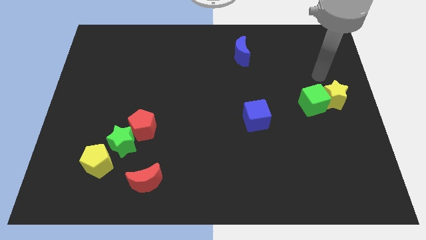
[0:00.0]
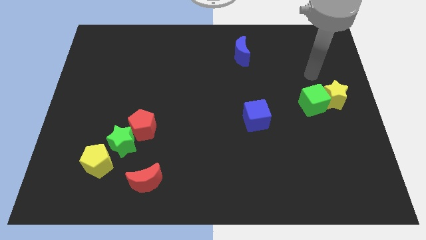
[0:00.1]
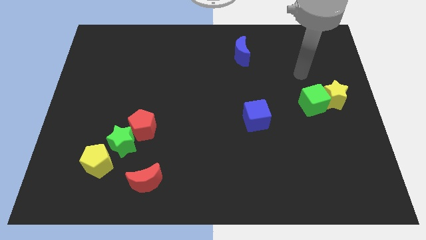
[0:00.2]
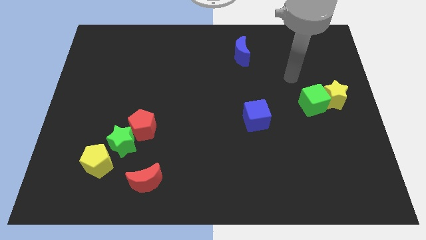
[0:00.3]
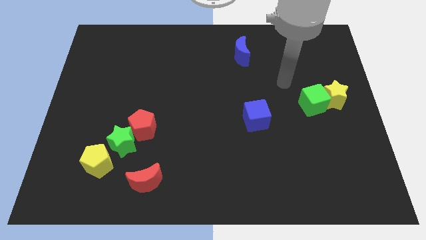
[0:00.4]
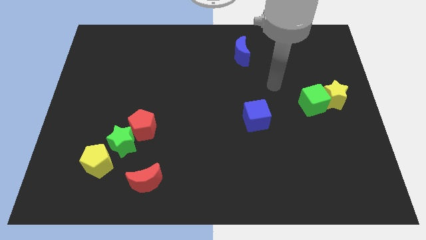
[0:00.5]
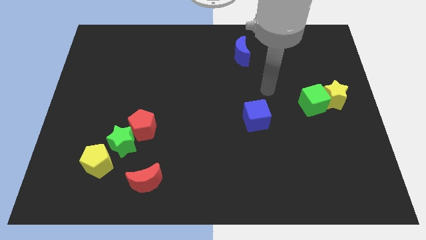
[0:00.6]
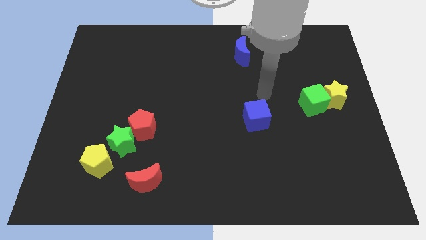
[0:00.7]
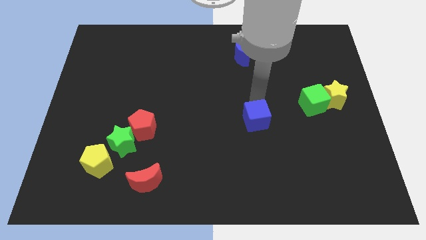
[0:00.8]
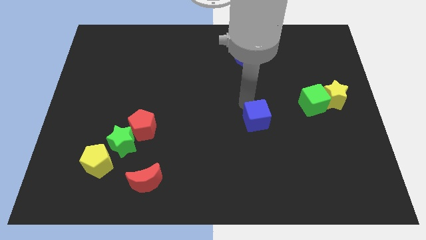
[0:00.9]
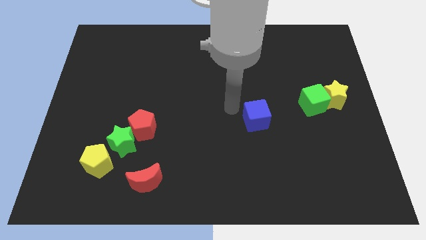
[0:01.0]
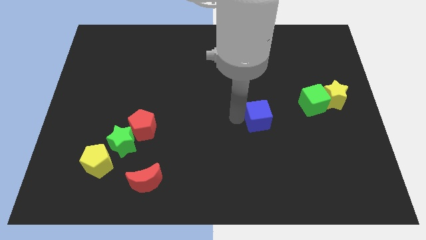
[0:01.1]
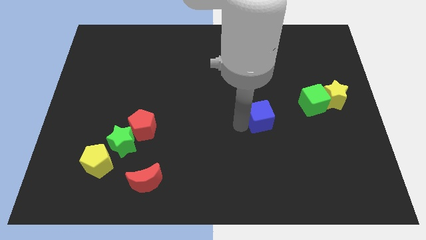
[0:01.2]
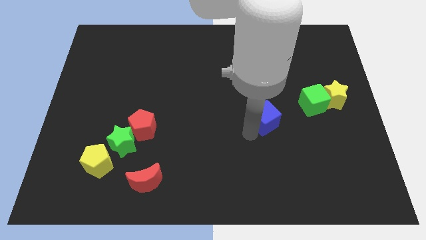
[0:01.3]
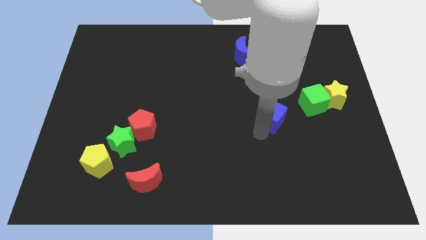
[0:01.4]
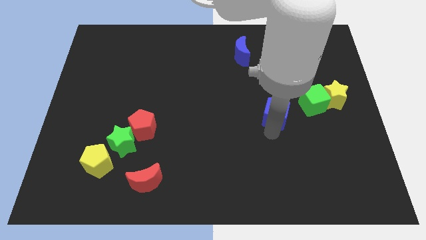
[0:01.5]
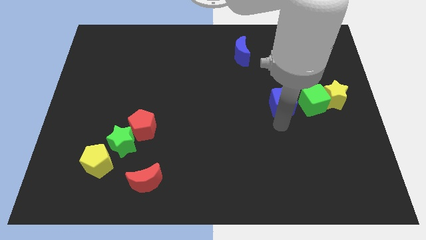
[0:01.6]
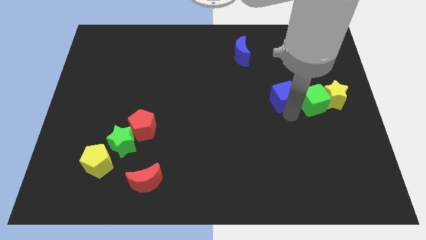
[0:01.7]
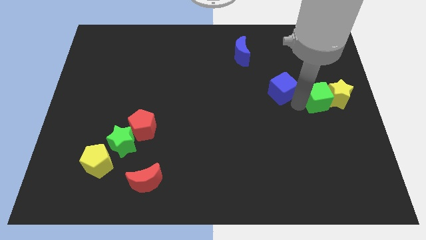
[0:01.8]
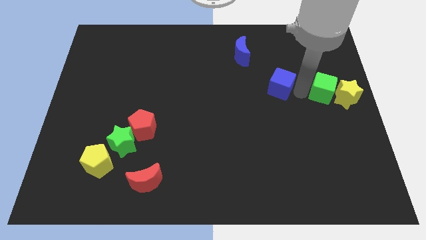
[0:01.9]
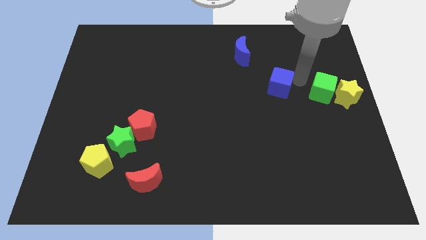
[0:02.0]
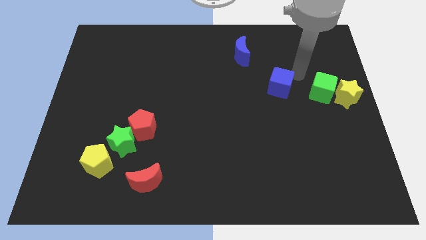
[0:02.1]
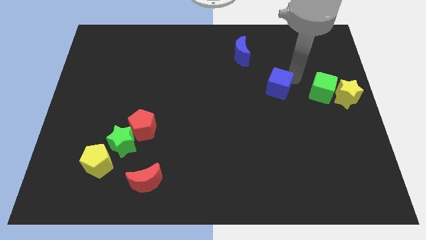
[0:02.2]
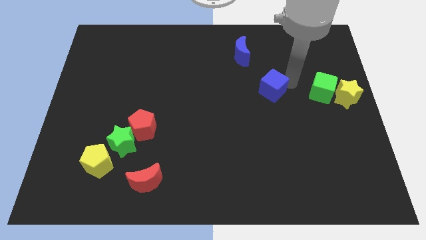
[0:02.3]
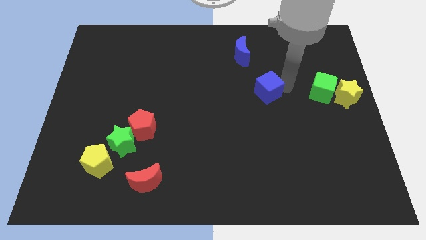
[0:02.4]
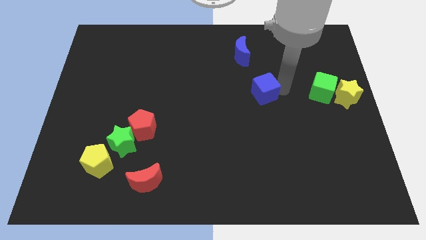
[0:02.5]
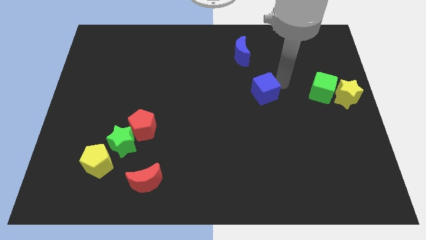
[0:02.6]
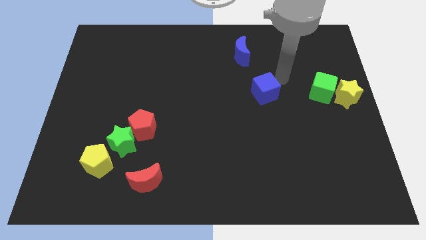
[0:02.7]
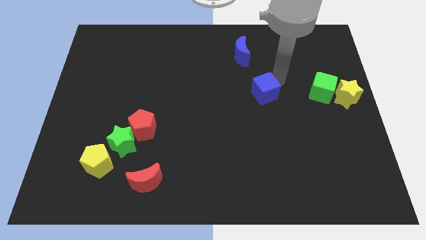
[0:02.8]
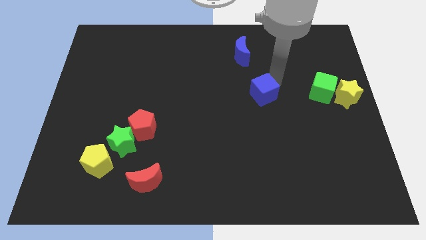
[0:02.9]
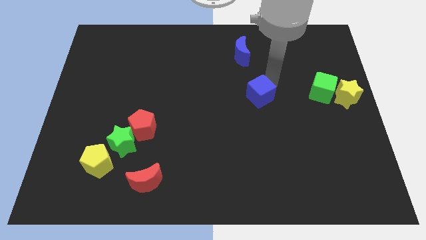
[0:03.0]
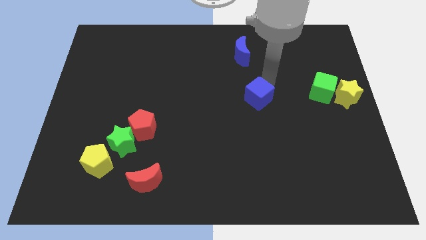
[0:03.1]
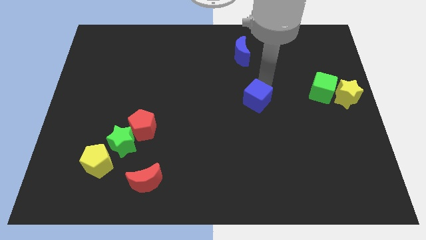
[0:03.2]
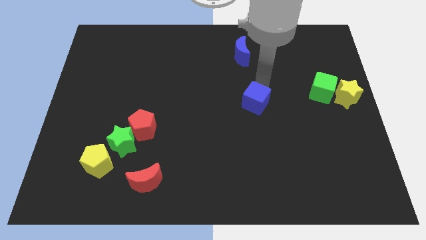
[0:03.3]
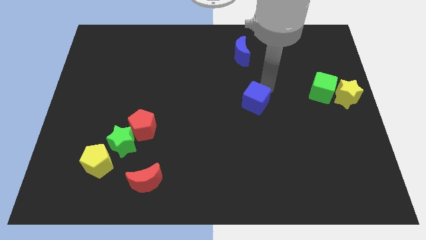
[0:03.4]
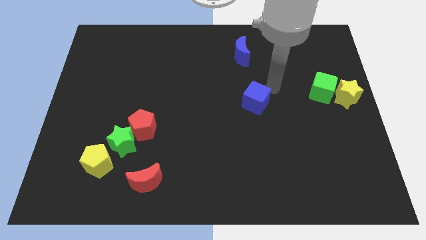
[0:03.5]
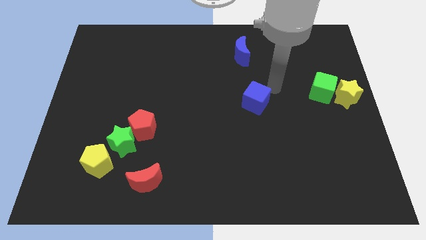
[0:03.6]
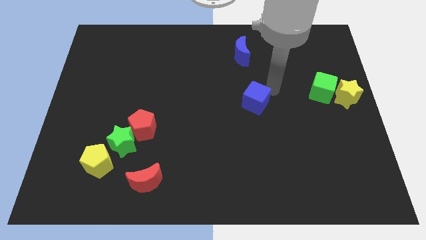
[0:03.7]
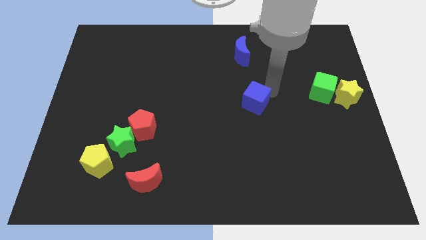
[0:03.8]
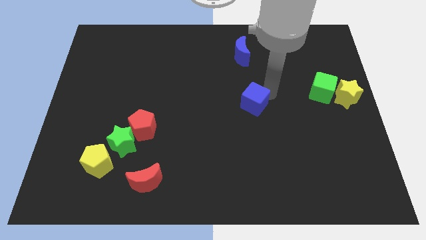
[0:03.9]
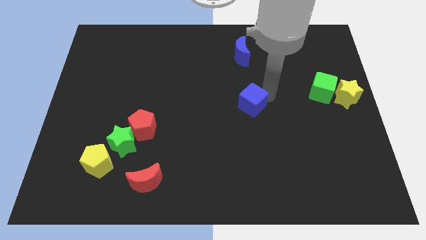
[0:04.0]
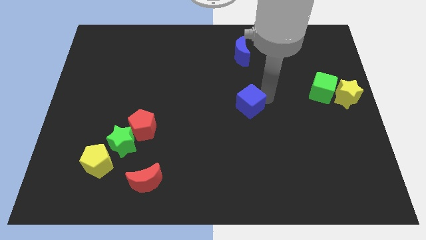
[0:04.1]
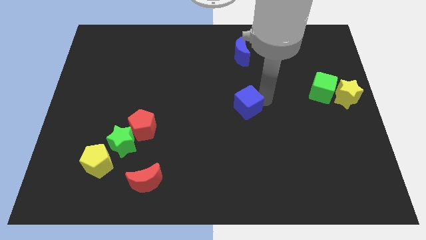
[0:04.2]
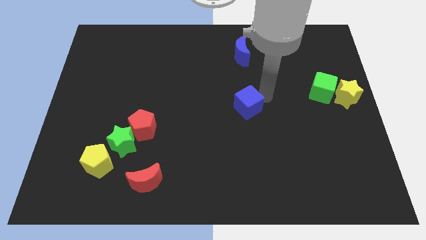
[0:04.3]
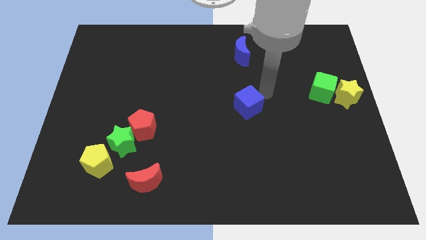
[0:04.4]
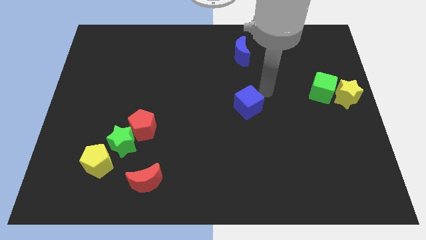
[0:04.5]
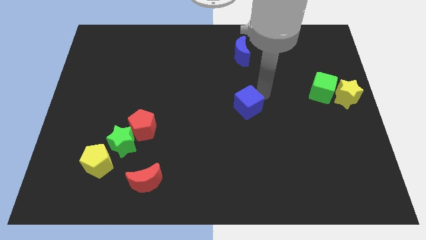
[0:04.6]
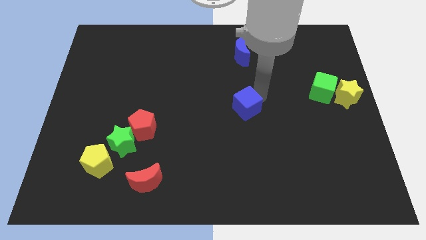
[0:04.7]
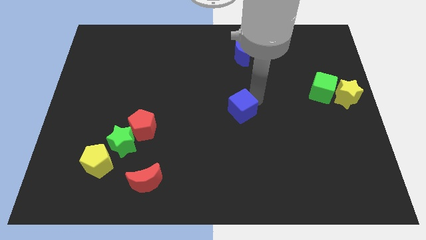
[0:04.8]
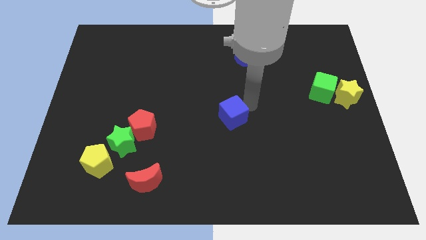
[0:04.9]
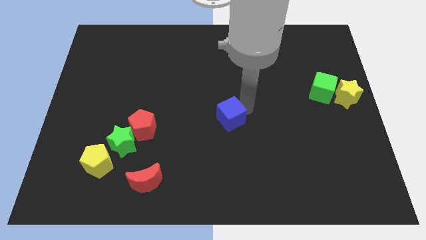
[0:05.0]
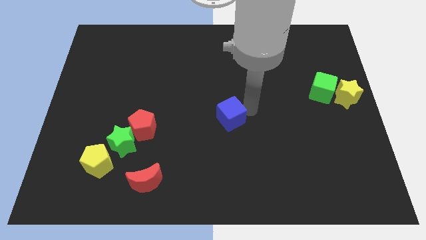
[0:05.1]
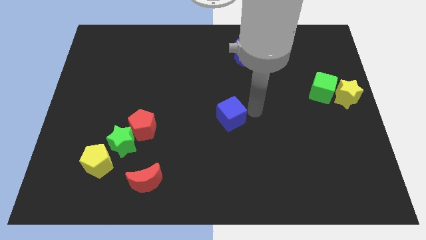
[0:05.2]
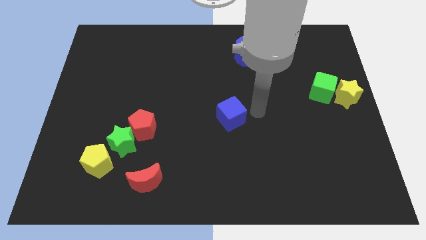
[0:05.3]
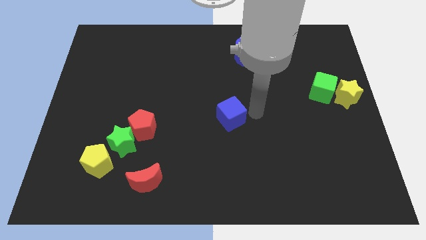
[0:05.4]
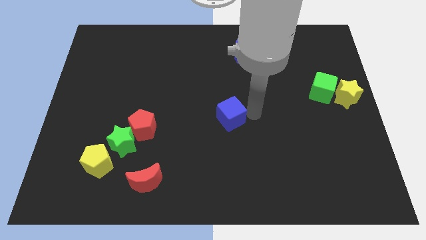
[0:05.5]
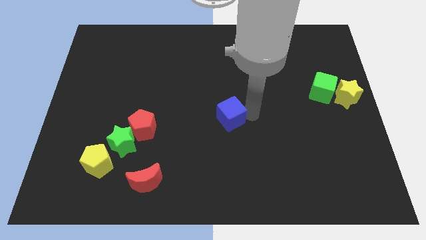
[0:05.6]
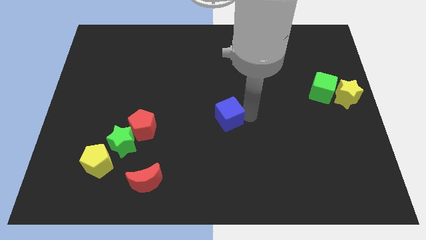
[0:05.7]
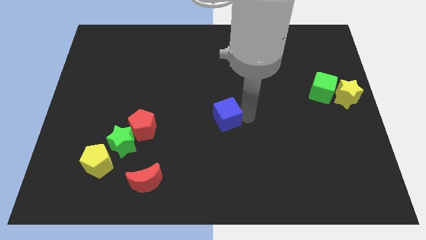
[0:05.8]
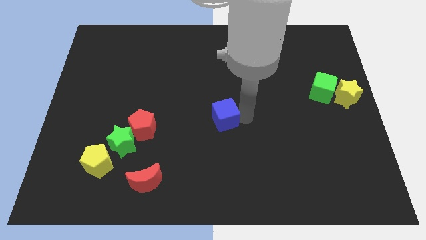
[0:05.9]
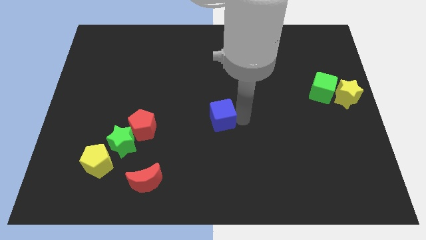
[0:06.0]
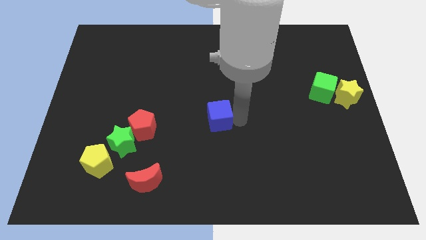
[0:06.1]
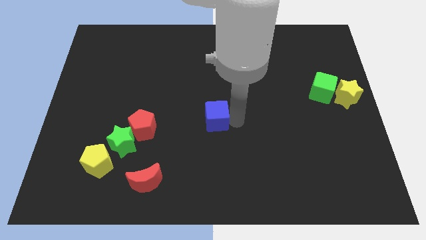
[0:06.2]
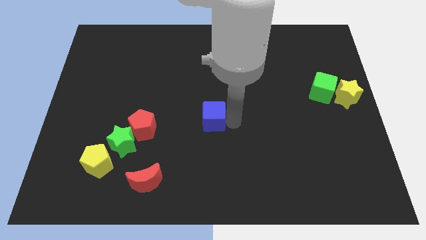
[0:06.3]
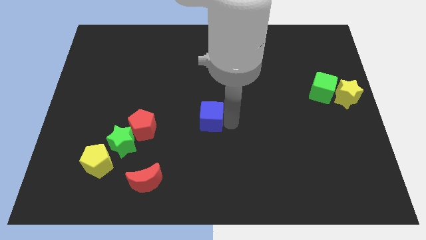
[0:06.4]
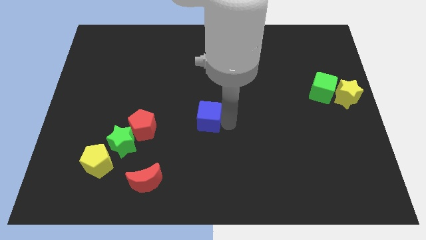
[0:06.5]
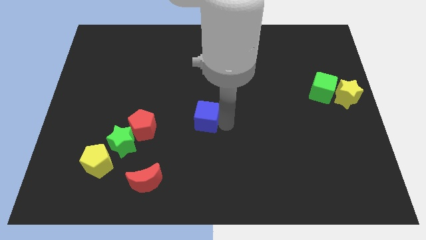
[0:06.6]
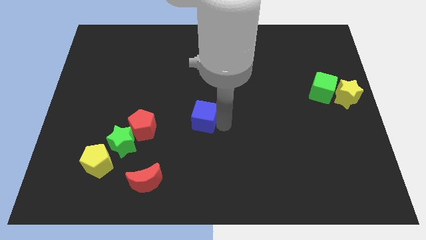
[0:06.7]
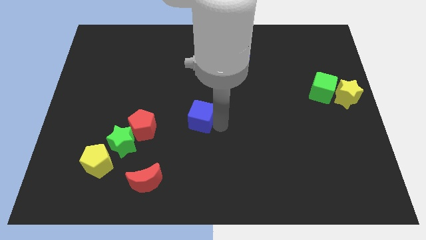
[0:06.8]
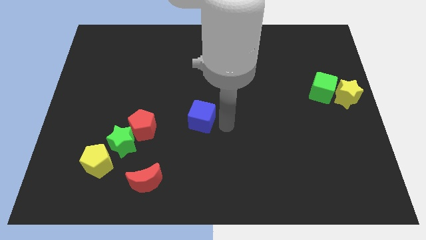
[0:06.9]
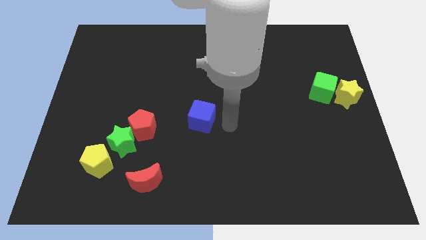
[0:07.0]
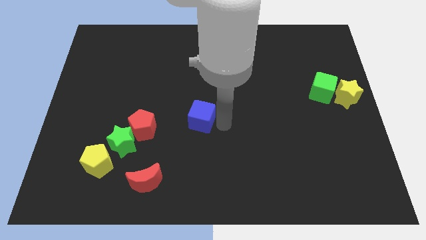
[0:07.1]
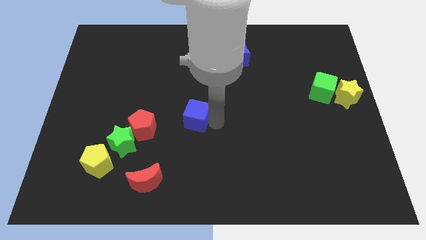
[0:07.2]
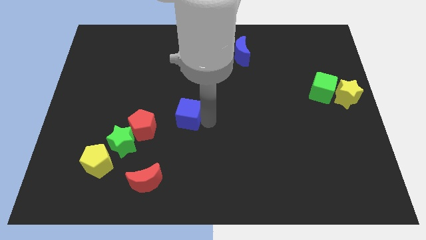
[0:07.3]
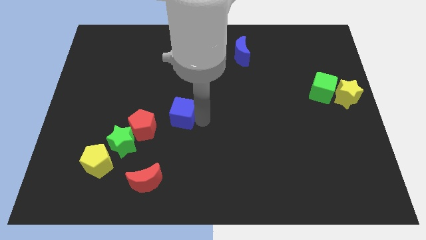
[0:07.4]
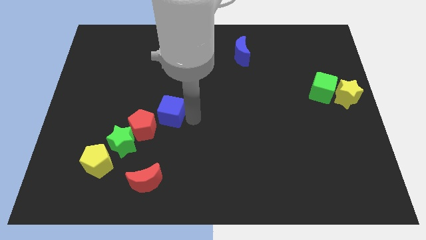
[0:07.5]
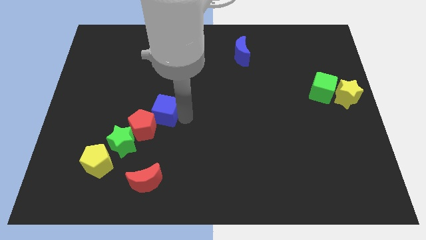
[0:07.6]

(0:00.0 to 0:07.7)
push the blue cube left

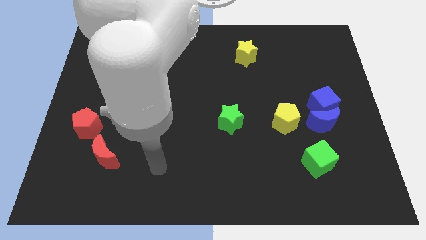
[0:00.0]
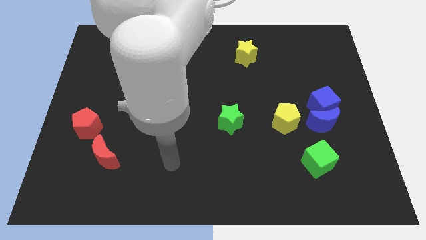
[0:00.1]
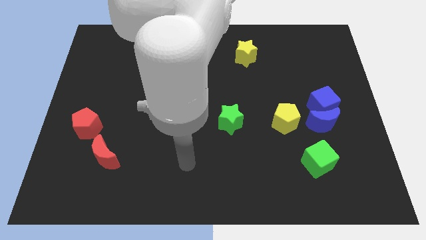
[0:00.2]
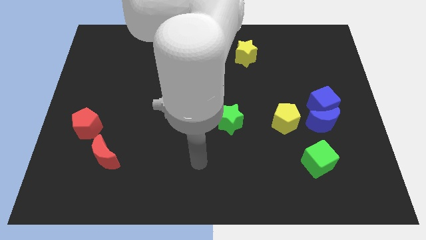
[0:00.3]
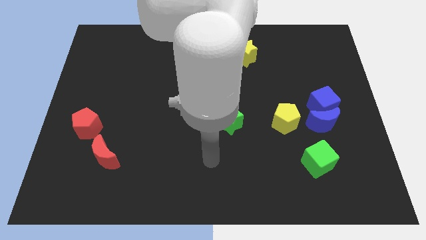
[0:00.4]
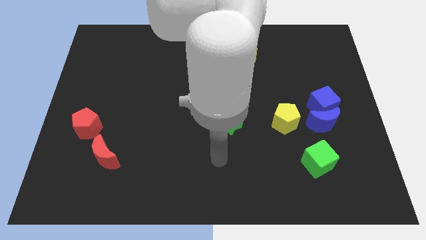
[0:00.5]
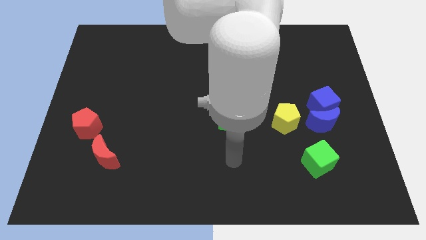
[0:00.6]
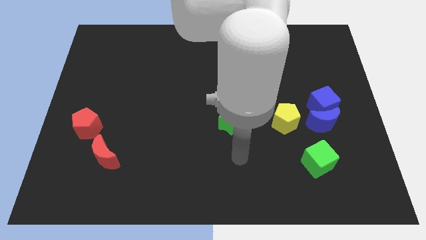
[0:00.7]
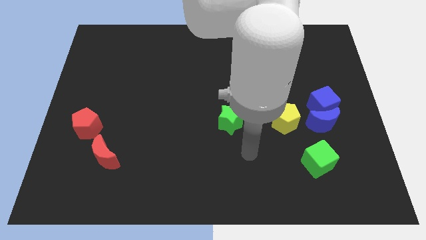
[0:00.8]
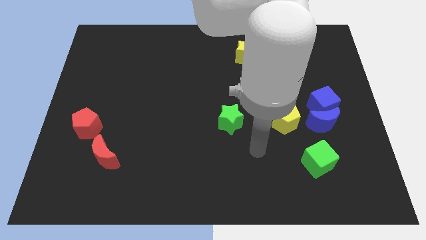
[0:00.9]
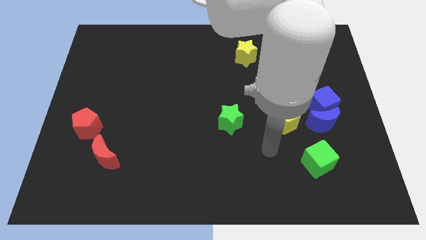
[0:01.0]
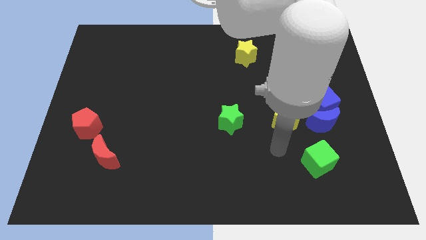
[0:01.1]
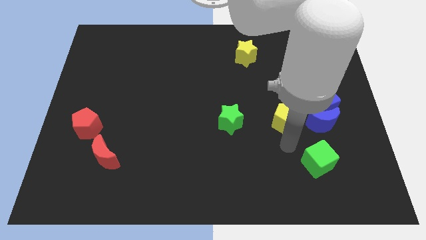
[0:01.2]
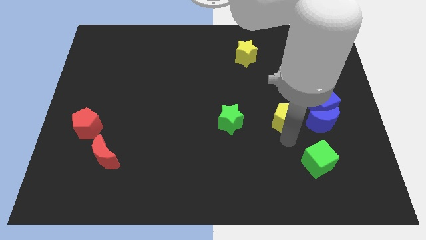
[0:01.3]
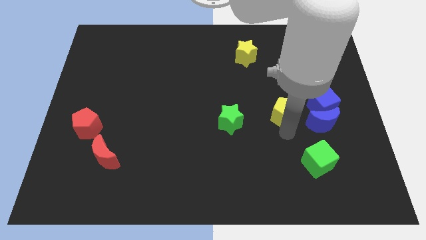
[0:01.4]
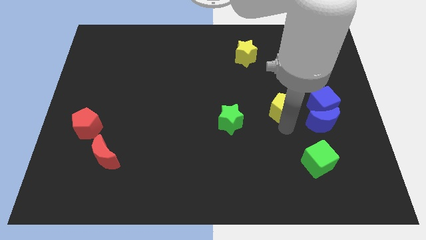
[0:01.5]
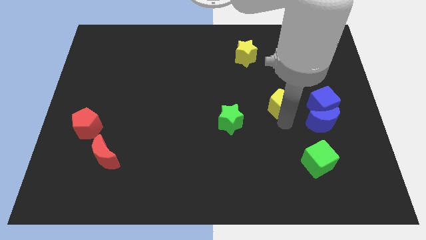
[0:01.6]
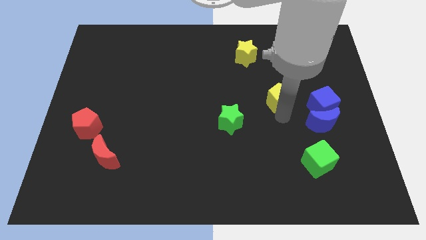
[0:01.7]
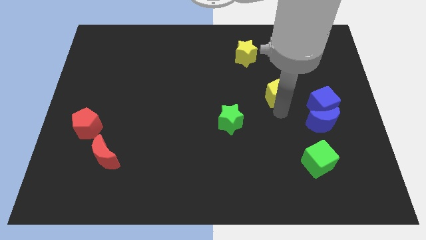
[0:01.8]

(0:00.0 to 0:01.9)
slightly move the yellow pentagon up
